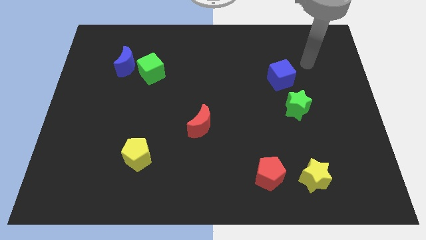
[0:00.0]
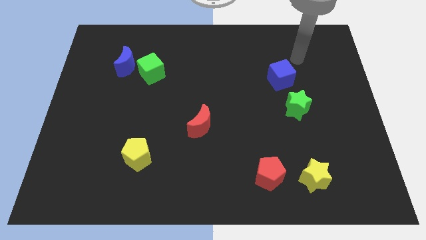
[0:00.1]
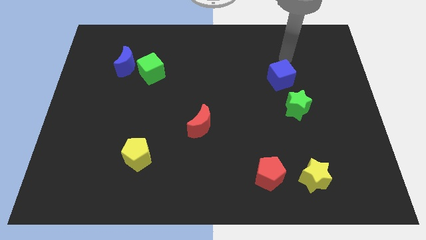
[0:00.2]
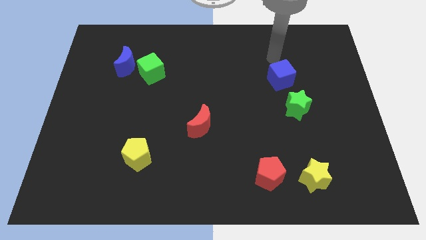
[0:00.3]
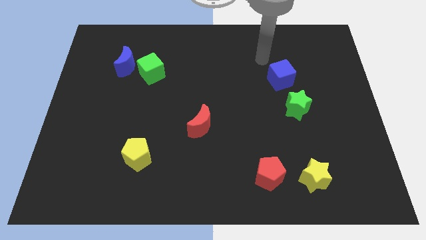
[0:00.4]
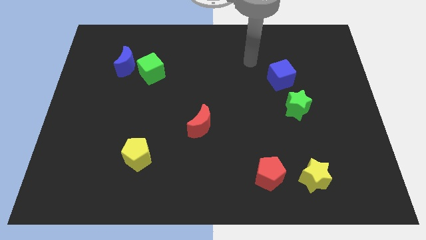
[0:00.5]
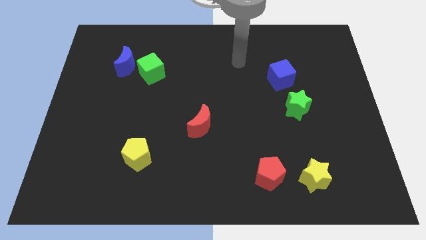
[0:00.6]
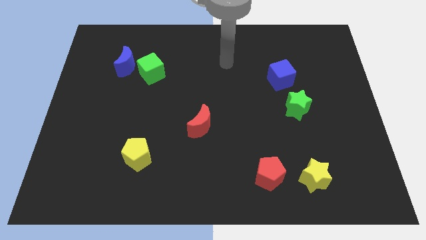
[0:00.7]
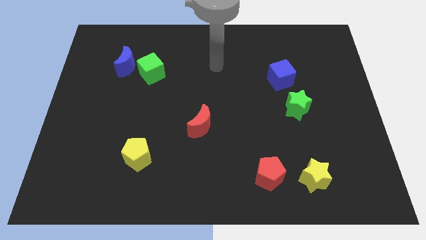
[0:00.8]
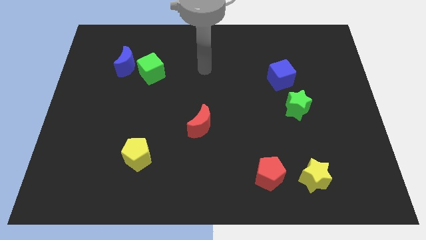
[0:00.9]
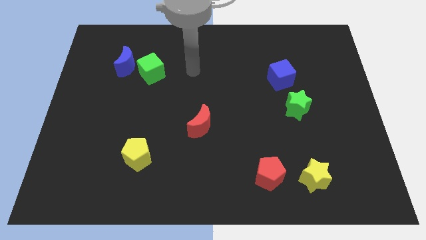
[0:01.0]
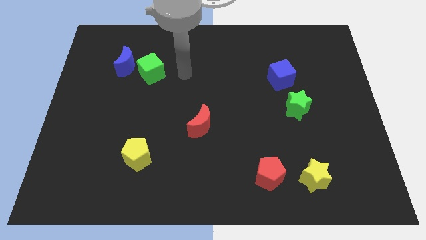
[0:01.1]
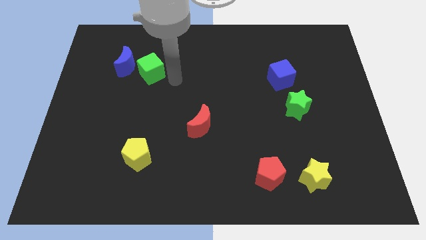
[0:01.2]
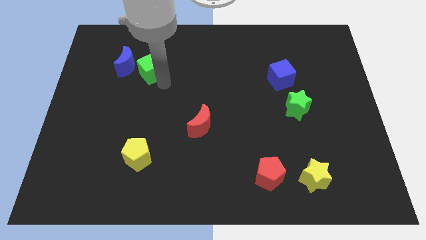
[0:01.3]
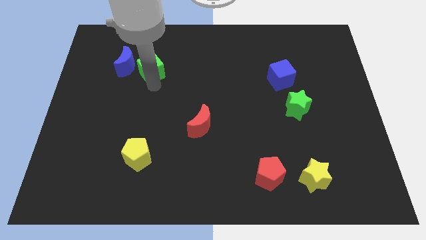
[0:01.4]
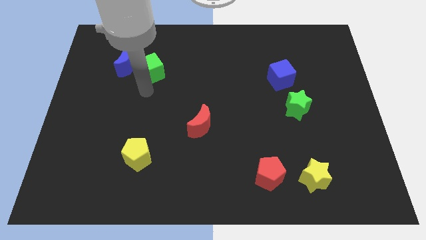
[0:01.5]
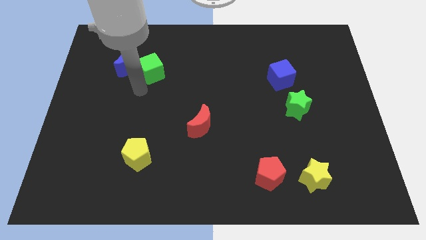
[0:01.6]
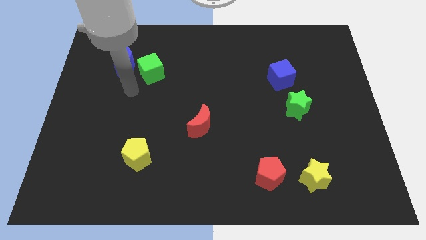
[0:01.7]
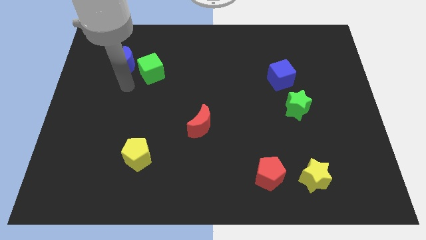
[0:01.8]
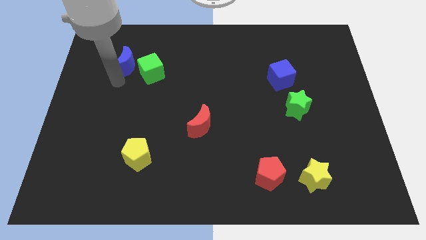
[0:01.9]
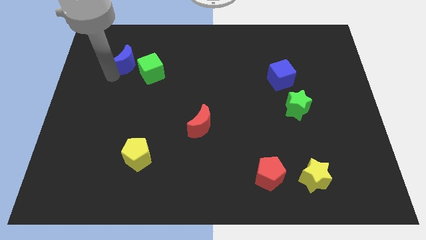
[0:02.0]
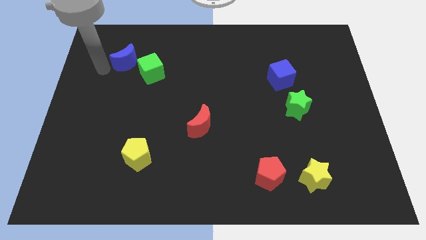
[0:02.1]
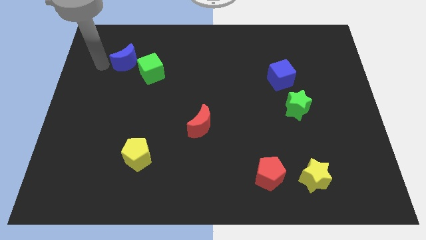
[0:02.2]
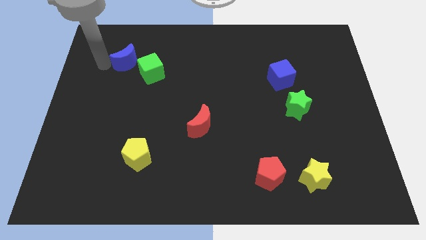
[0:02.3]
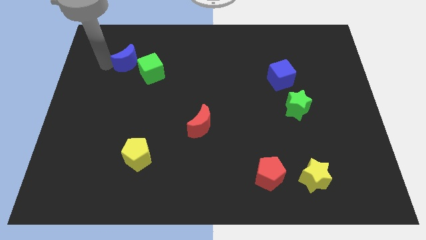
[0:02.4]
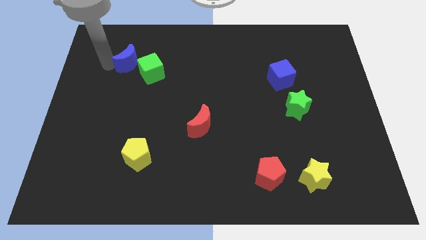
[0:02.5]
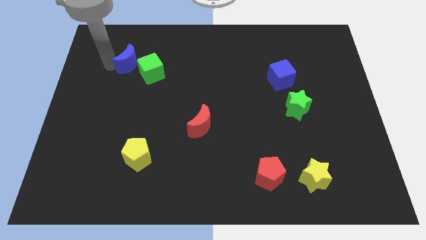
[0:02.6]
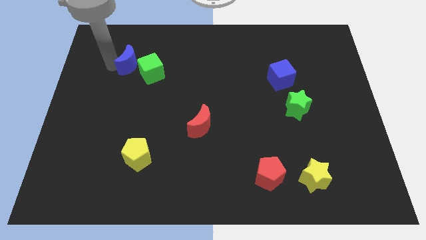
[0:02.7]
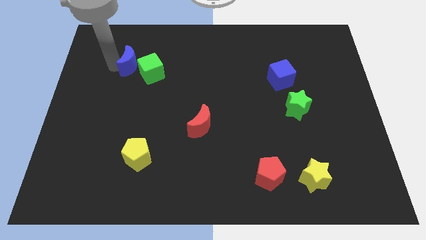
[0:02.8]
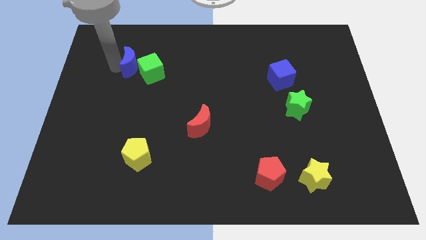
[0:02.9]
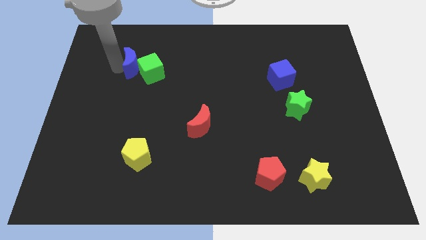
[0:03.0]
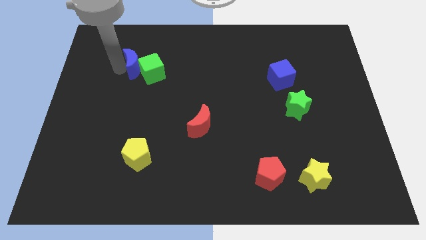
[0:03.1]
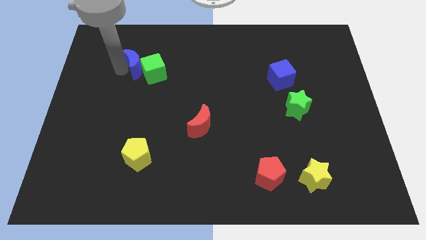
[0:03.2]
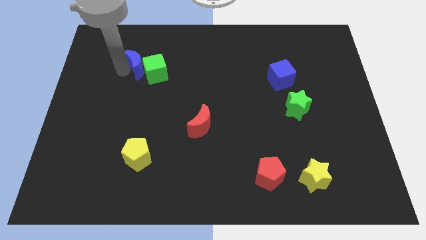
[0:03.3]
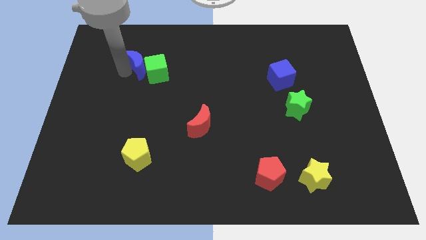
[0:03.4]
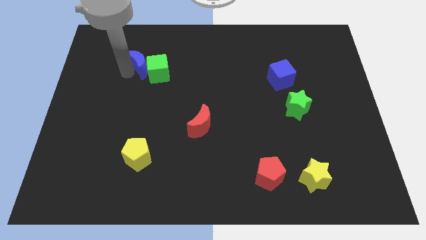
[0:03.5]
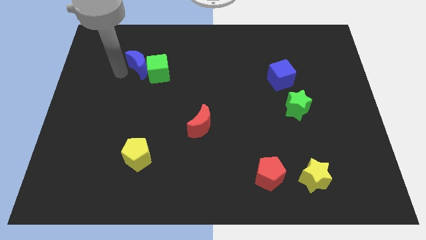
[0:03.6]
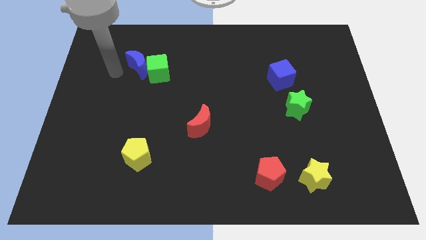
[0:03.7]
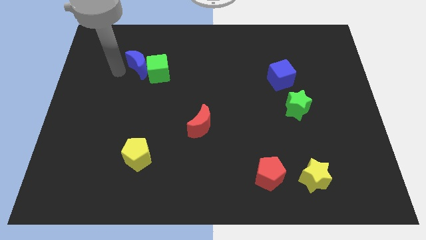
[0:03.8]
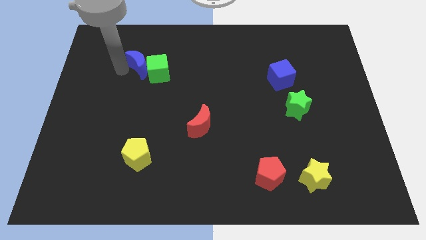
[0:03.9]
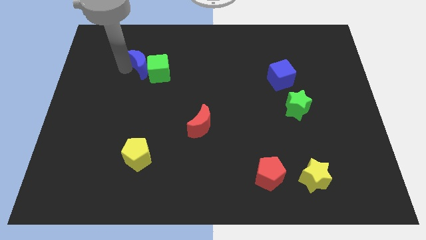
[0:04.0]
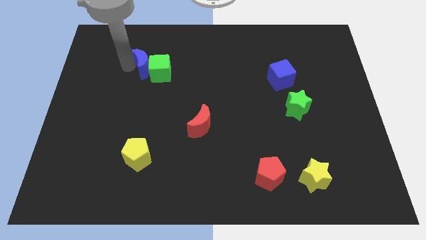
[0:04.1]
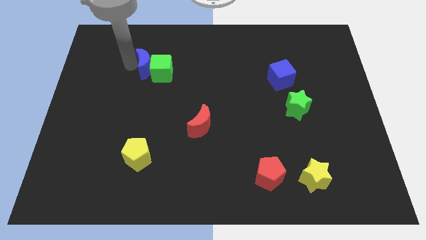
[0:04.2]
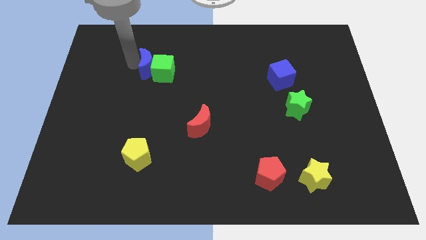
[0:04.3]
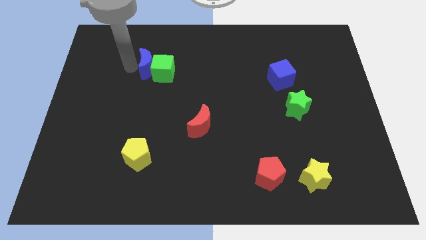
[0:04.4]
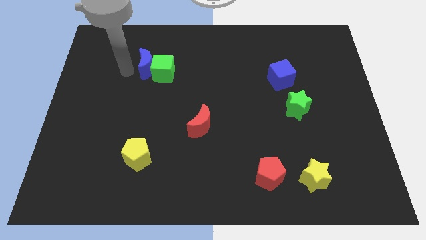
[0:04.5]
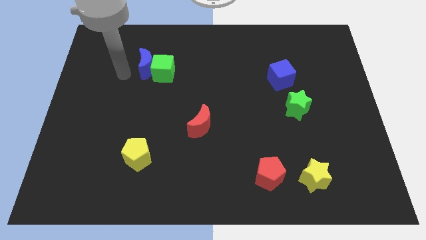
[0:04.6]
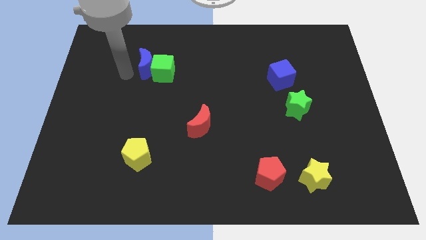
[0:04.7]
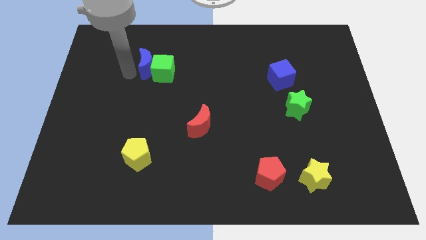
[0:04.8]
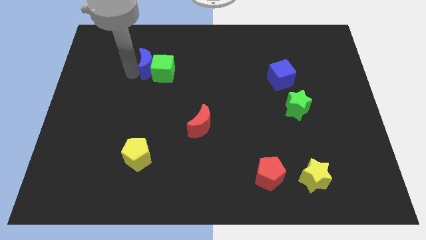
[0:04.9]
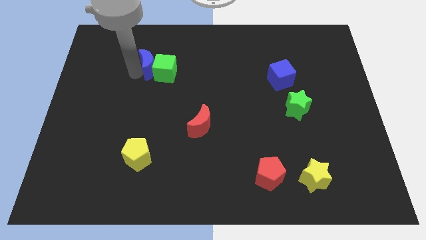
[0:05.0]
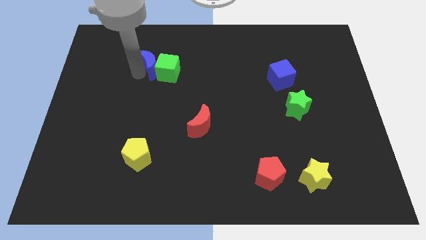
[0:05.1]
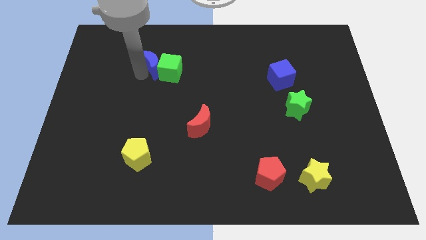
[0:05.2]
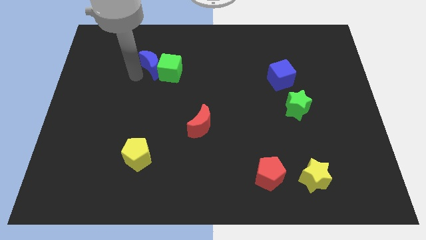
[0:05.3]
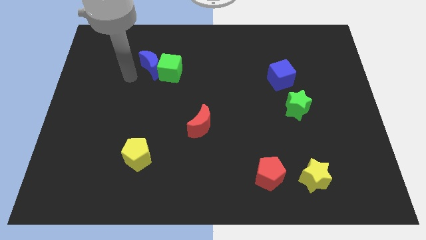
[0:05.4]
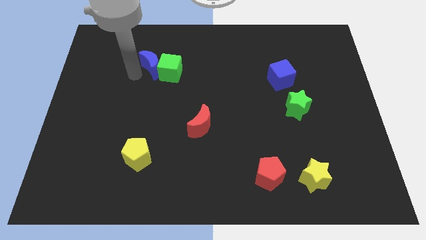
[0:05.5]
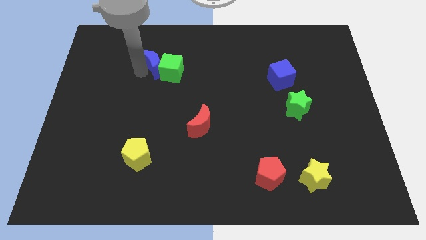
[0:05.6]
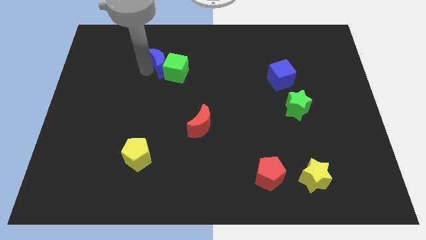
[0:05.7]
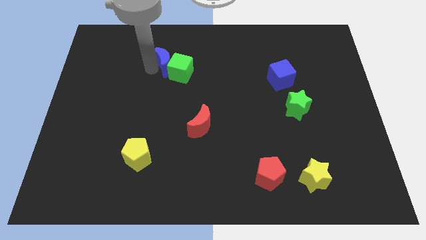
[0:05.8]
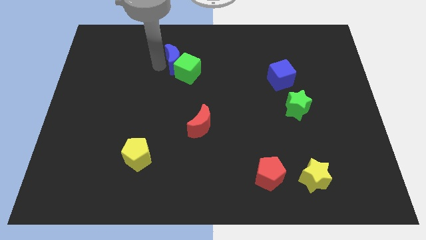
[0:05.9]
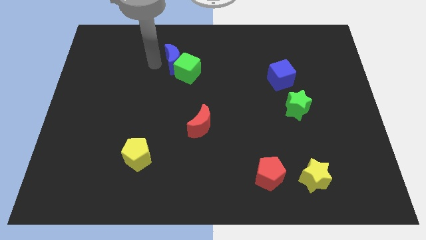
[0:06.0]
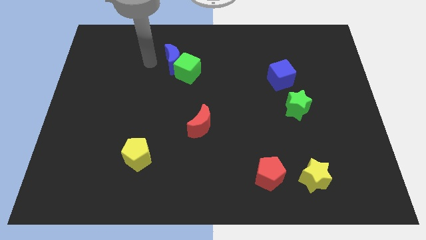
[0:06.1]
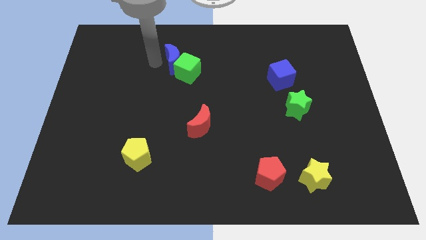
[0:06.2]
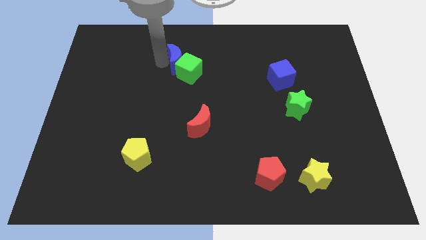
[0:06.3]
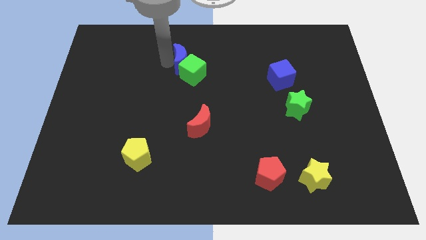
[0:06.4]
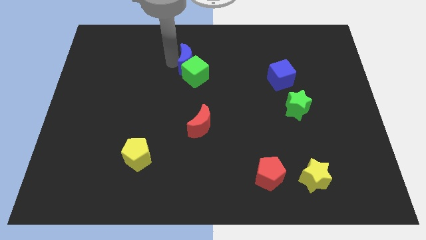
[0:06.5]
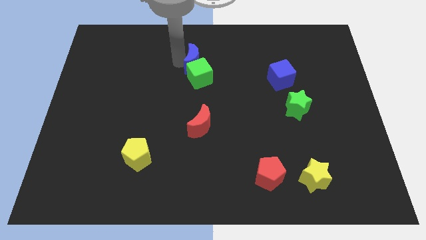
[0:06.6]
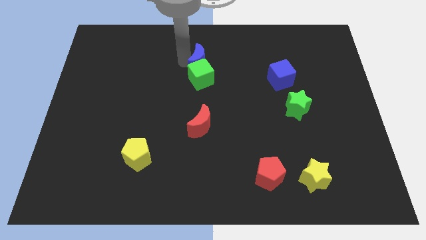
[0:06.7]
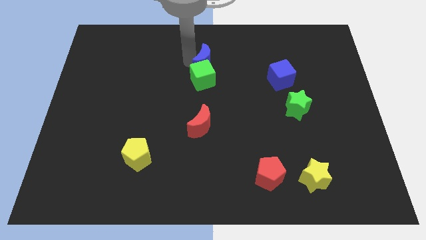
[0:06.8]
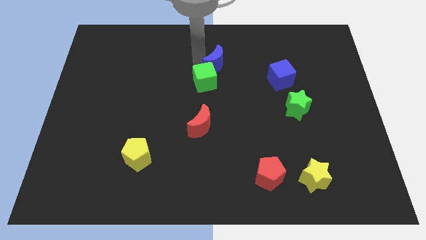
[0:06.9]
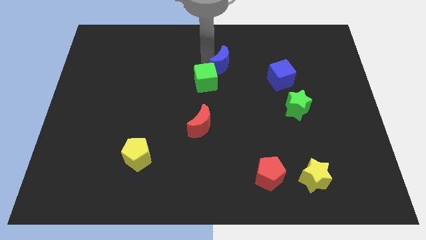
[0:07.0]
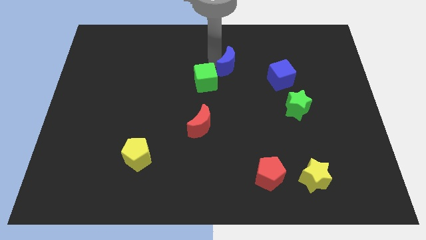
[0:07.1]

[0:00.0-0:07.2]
push the blue moon to the left of the blue cube
